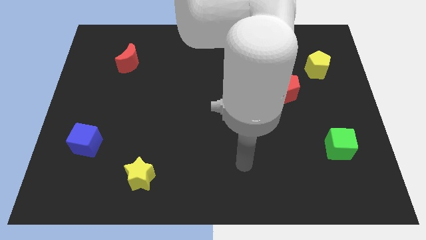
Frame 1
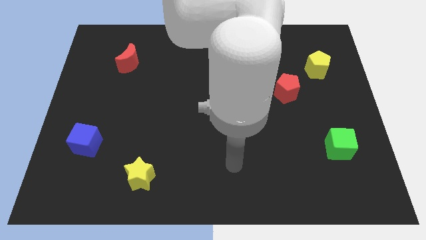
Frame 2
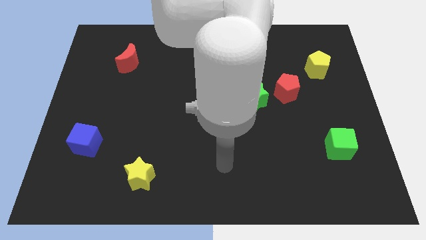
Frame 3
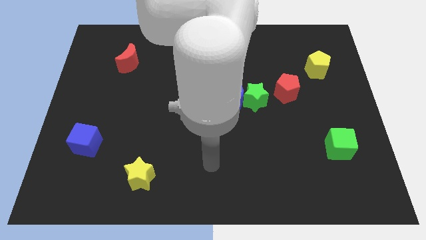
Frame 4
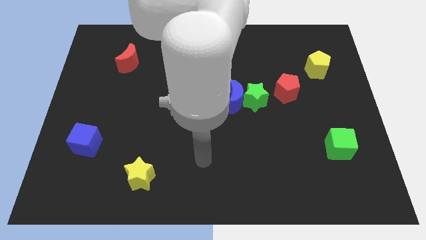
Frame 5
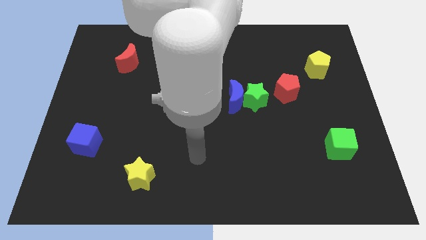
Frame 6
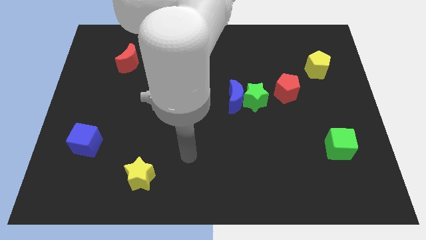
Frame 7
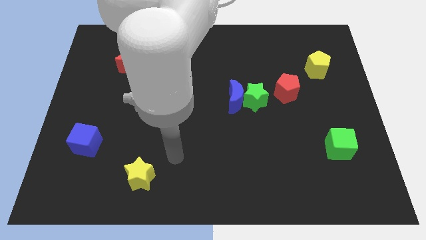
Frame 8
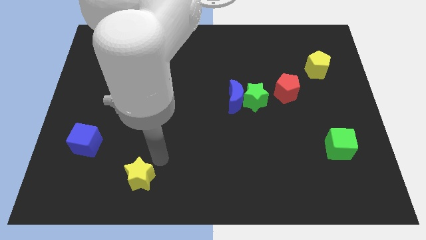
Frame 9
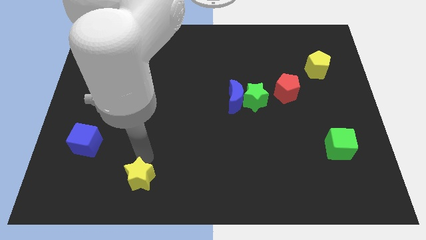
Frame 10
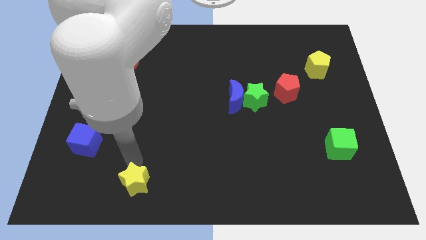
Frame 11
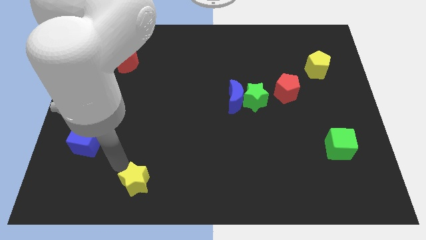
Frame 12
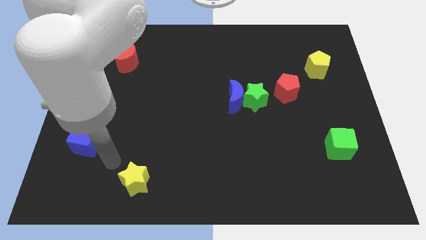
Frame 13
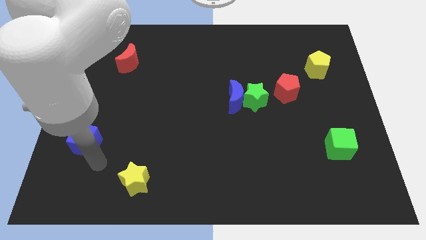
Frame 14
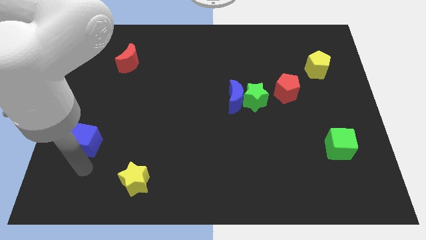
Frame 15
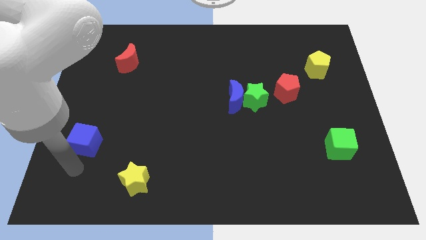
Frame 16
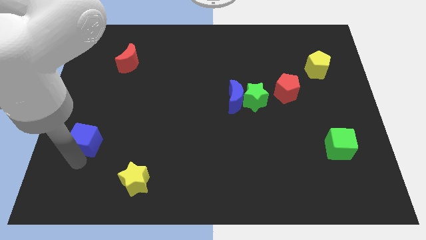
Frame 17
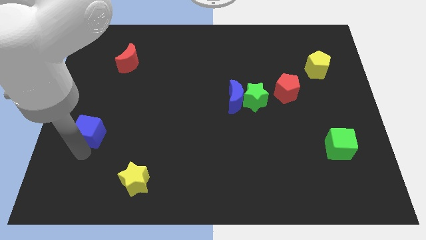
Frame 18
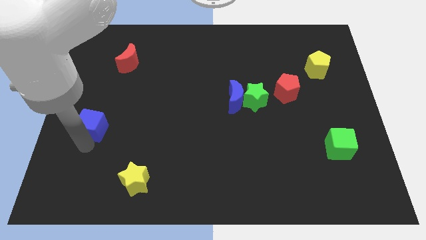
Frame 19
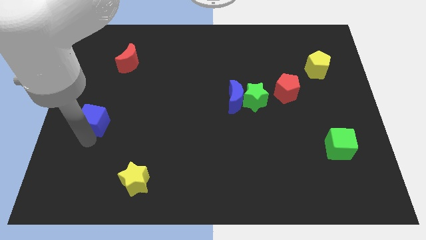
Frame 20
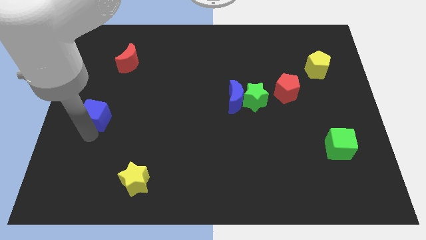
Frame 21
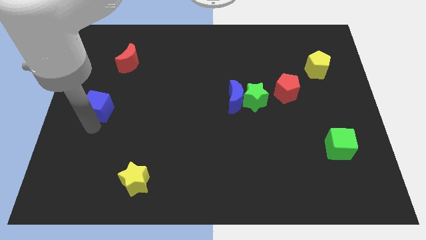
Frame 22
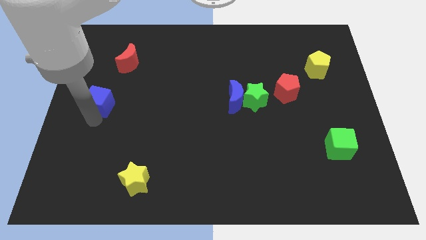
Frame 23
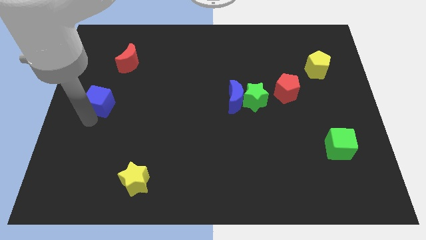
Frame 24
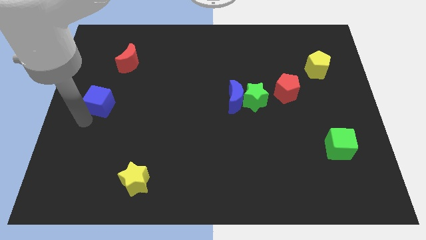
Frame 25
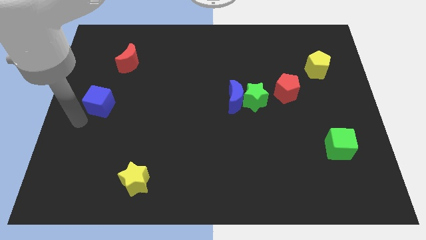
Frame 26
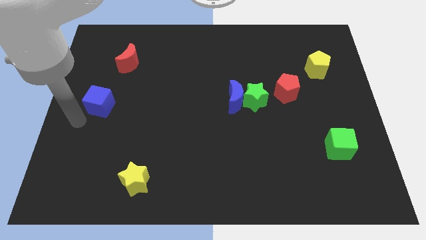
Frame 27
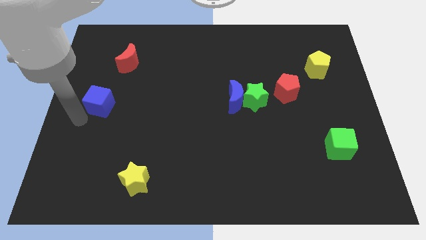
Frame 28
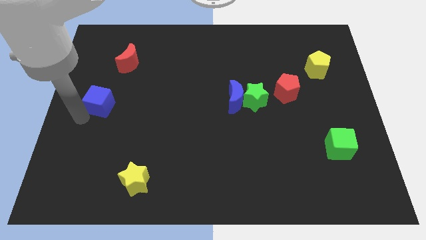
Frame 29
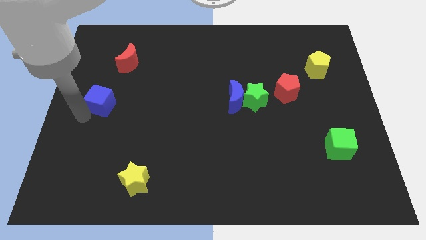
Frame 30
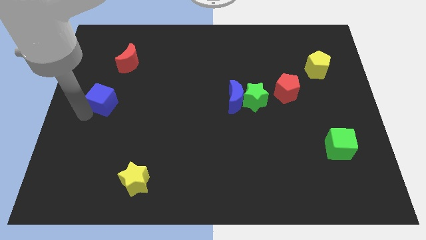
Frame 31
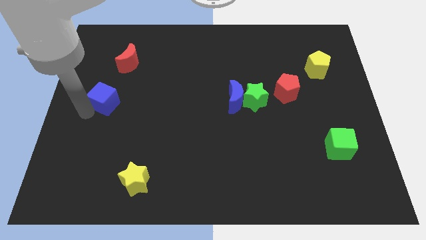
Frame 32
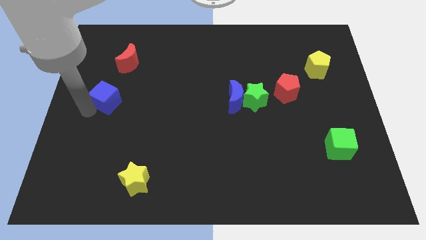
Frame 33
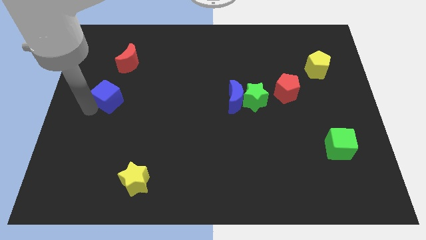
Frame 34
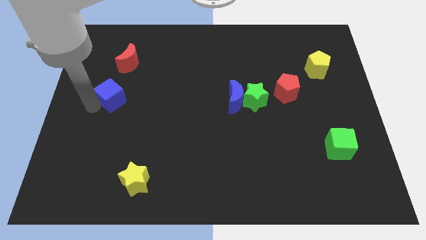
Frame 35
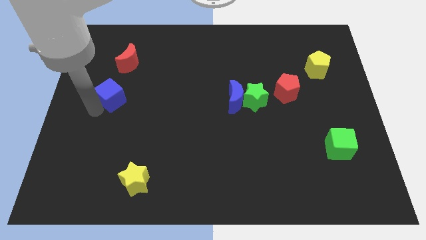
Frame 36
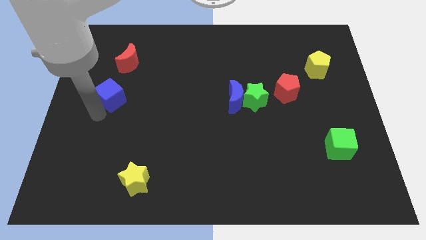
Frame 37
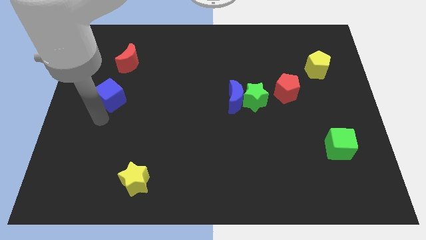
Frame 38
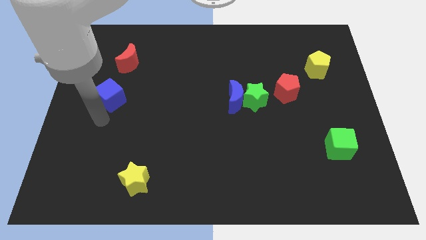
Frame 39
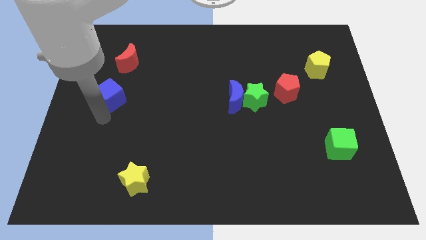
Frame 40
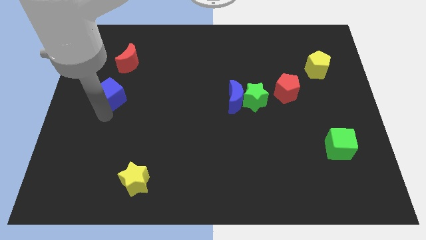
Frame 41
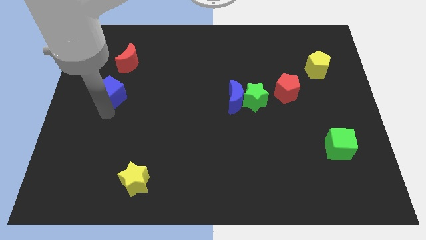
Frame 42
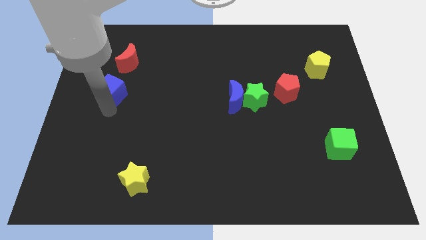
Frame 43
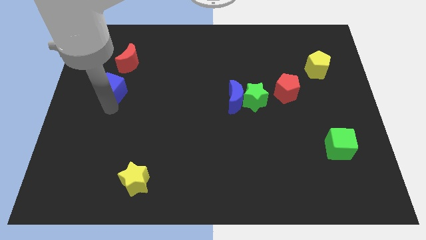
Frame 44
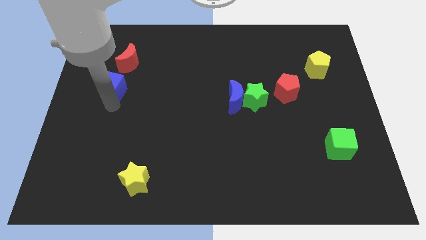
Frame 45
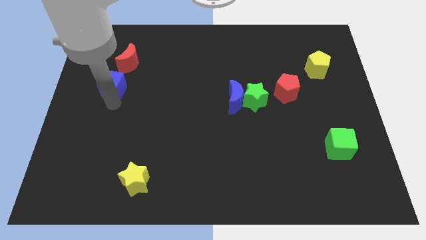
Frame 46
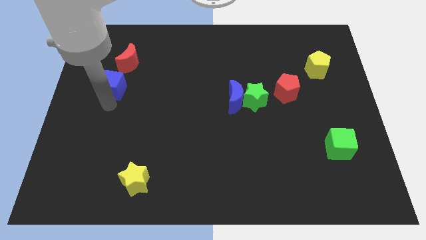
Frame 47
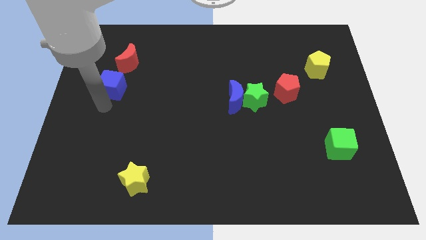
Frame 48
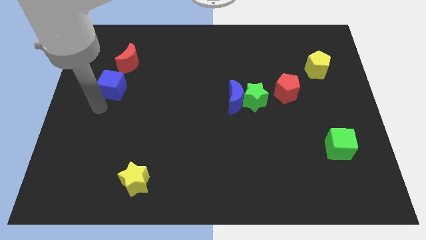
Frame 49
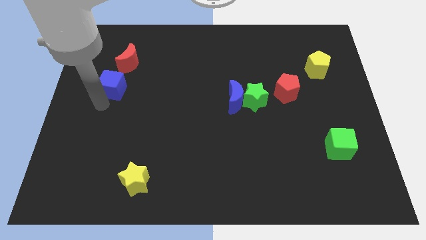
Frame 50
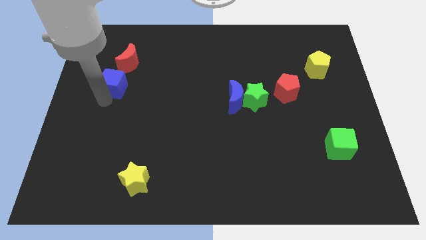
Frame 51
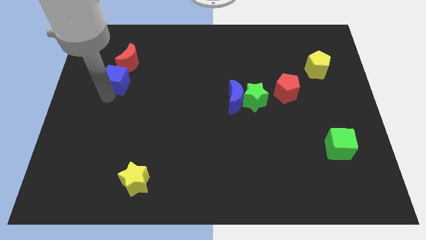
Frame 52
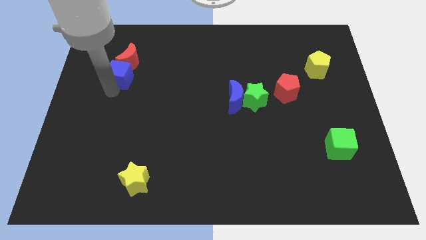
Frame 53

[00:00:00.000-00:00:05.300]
slide the blue cube to the red moon

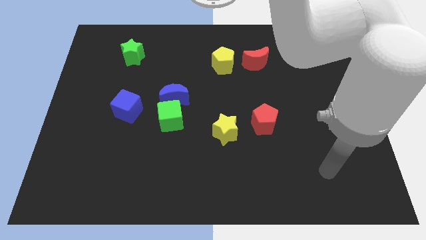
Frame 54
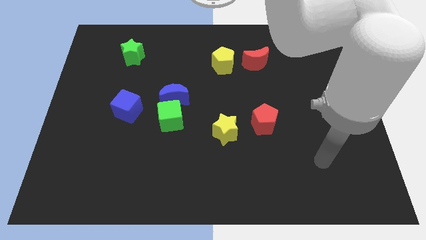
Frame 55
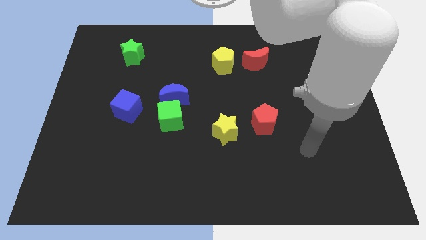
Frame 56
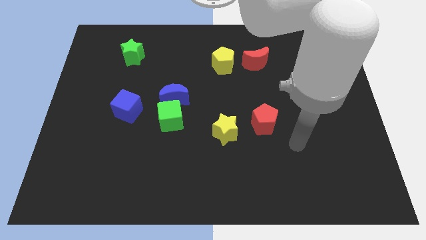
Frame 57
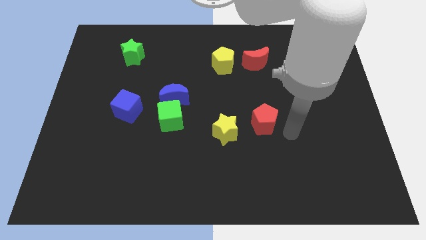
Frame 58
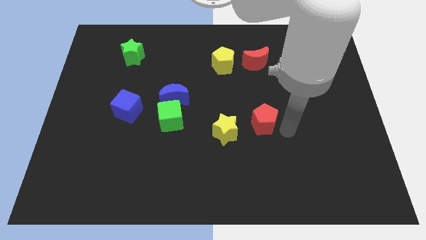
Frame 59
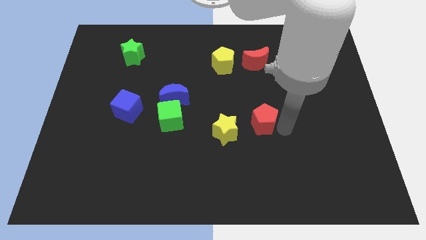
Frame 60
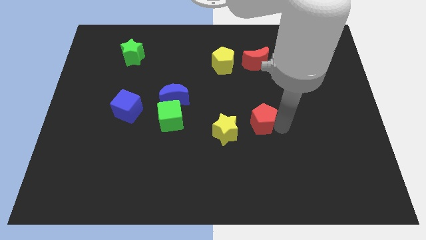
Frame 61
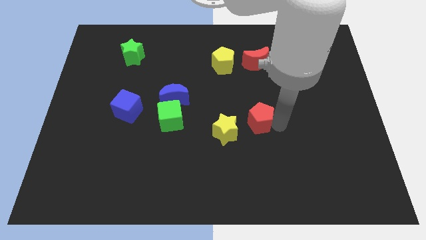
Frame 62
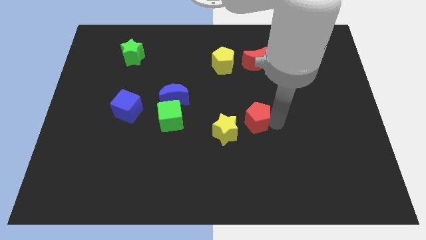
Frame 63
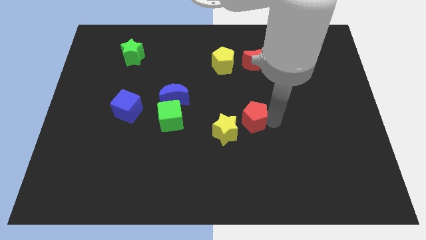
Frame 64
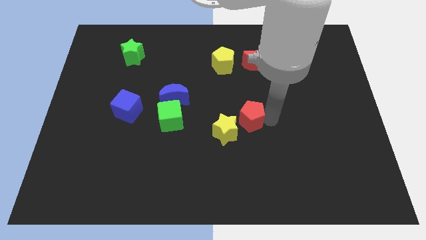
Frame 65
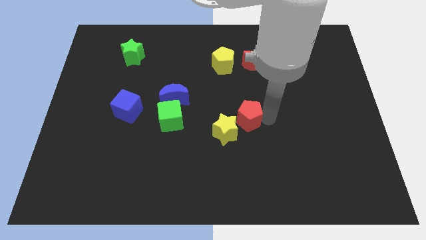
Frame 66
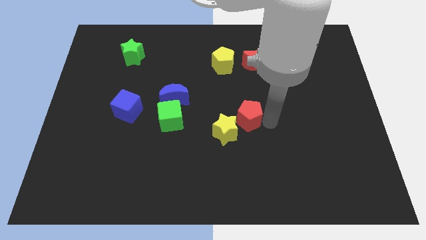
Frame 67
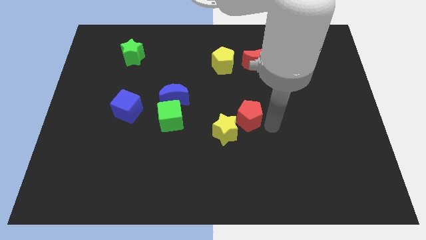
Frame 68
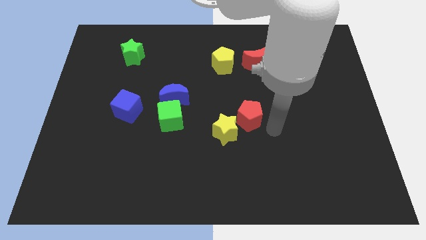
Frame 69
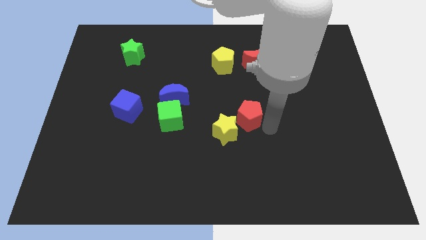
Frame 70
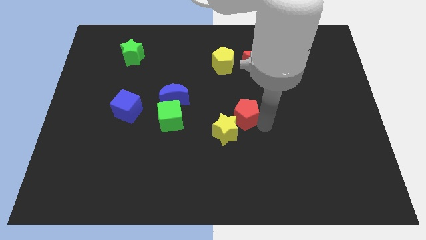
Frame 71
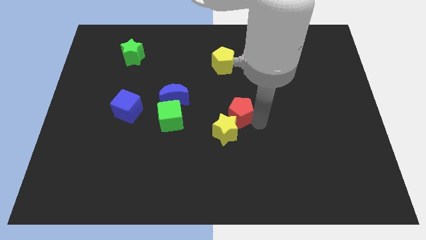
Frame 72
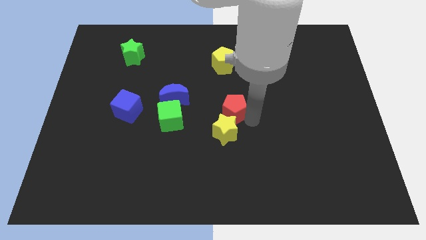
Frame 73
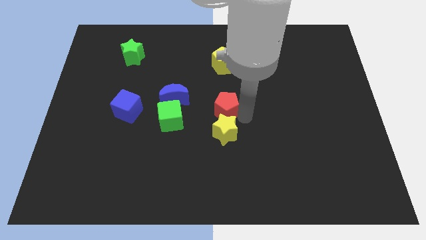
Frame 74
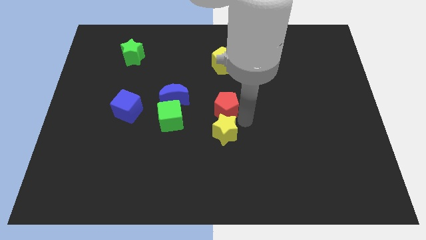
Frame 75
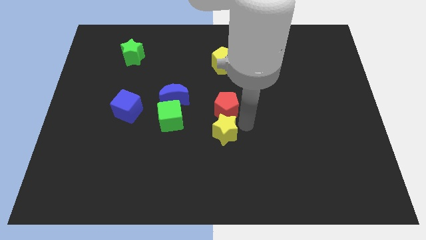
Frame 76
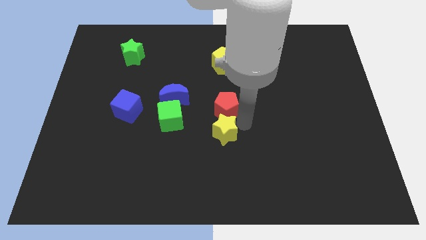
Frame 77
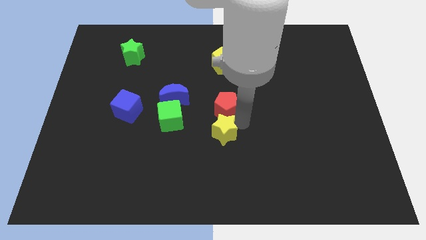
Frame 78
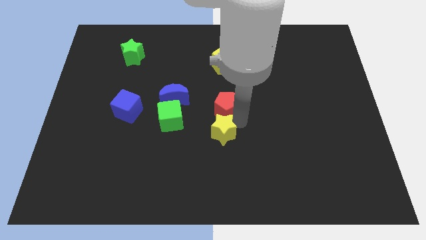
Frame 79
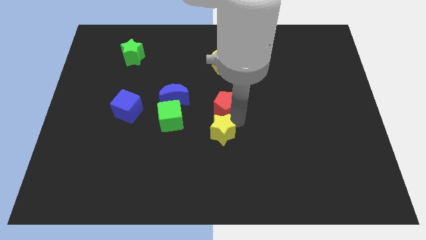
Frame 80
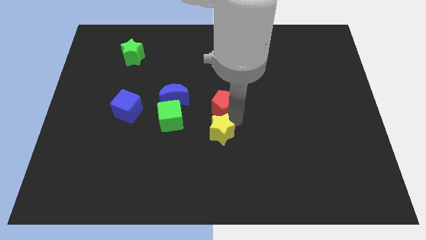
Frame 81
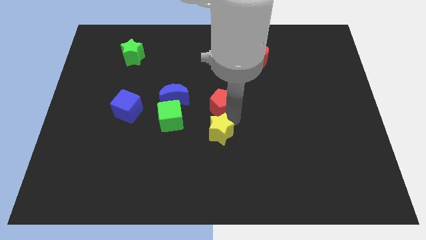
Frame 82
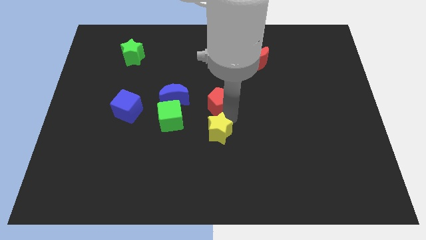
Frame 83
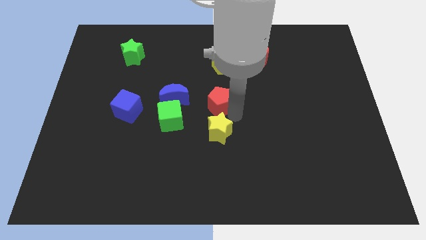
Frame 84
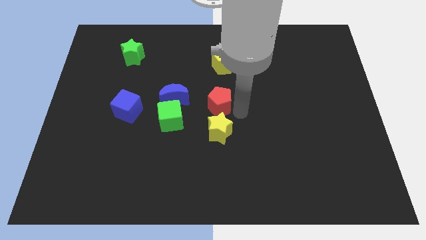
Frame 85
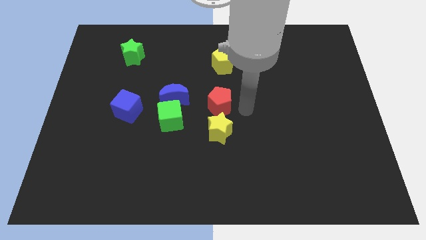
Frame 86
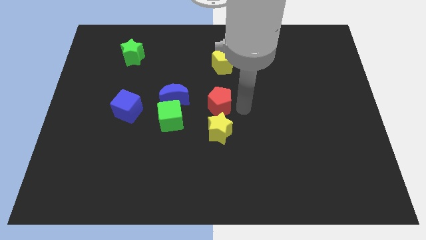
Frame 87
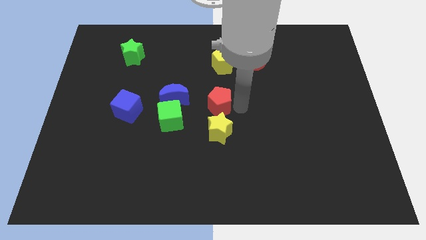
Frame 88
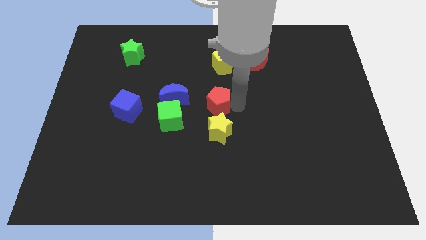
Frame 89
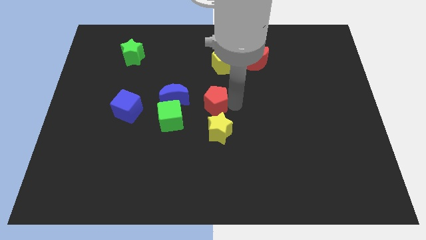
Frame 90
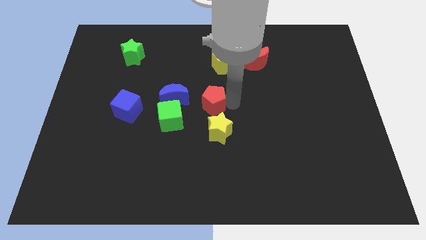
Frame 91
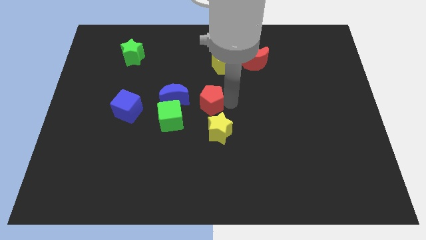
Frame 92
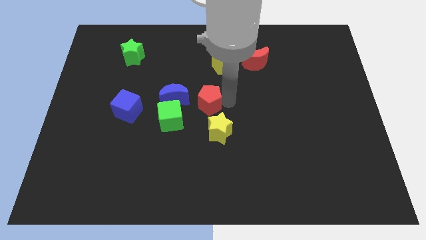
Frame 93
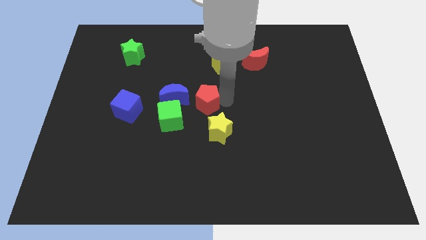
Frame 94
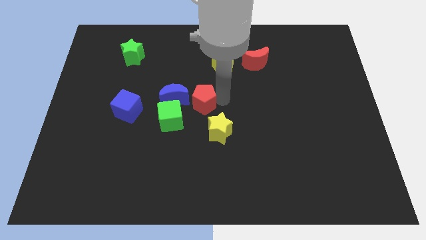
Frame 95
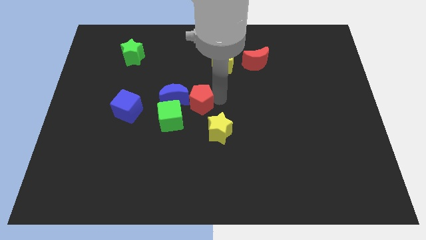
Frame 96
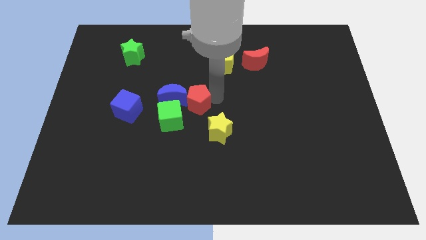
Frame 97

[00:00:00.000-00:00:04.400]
push the red pentagon to the blue moon
